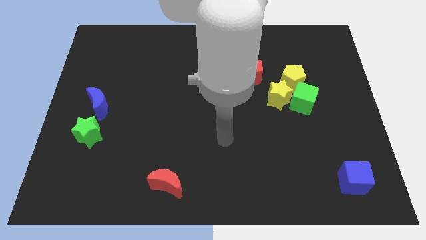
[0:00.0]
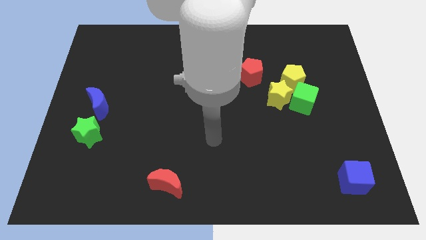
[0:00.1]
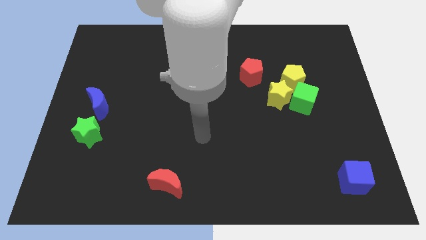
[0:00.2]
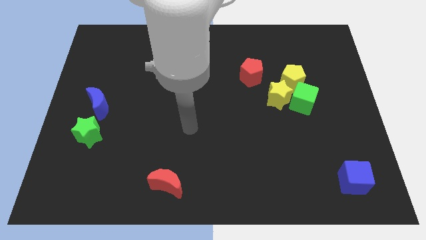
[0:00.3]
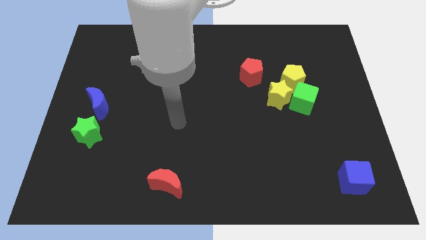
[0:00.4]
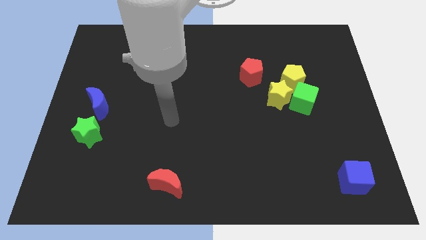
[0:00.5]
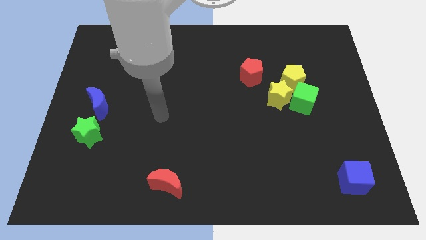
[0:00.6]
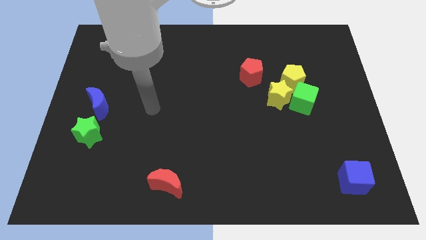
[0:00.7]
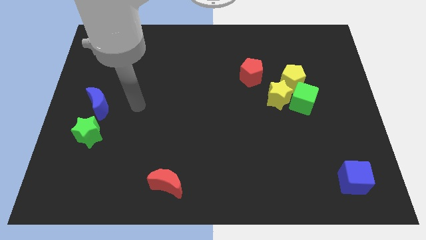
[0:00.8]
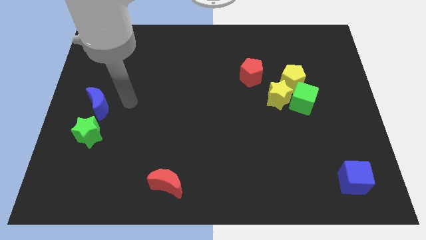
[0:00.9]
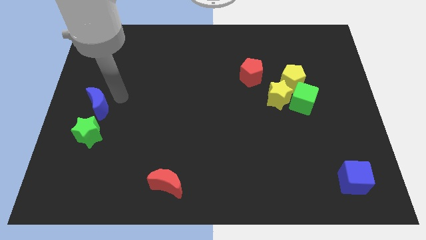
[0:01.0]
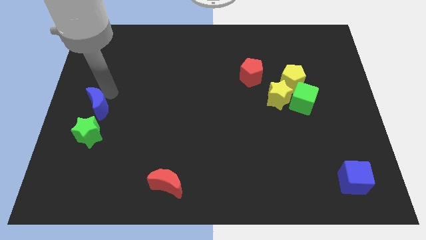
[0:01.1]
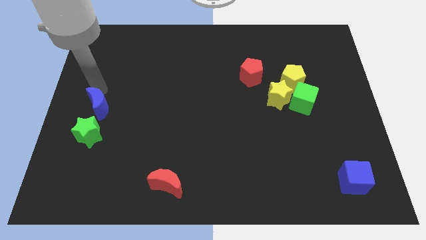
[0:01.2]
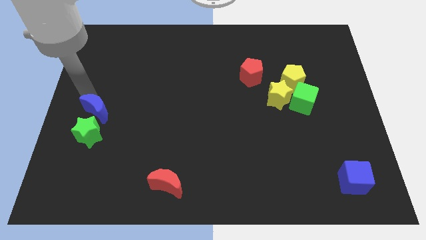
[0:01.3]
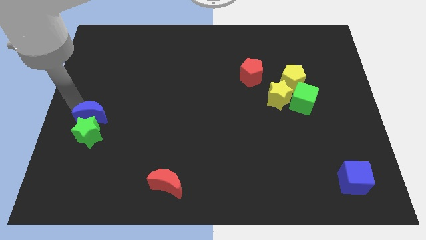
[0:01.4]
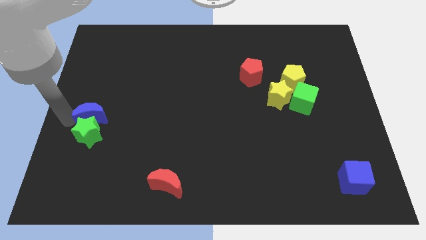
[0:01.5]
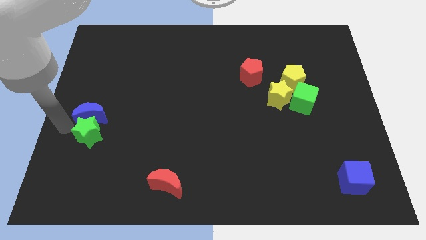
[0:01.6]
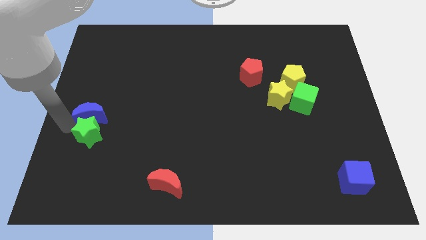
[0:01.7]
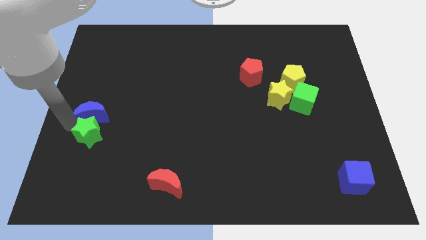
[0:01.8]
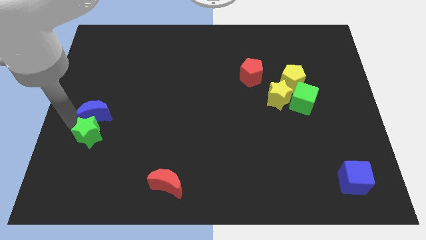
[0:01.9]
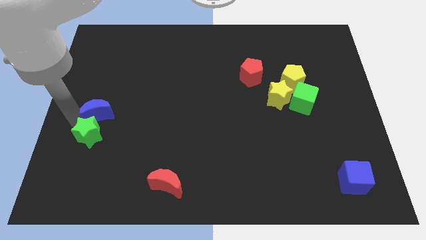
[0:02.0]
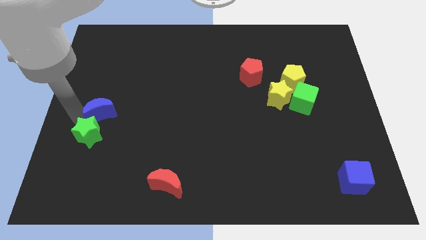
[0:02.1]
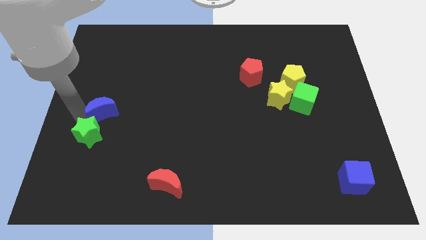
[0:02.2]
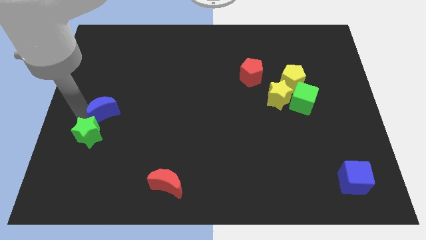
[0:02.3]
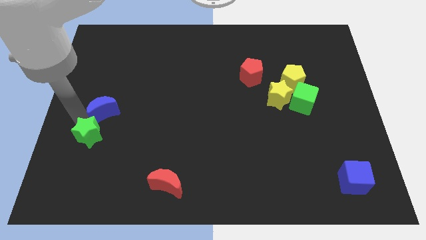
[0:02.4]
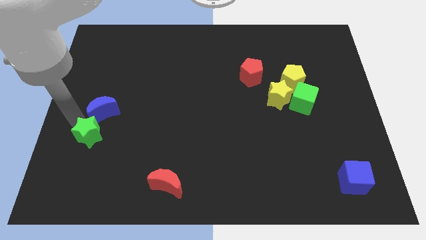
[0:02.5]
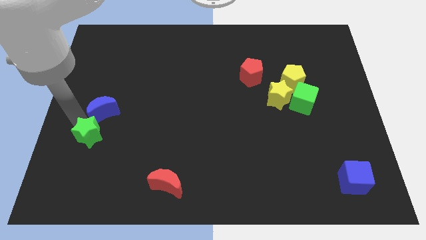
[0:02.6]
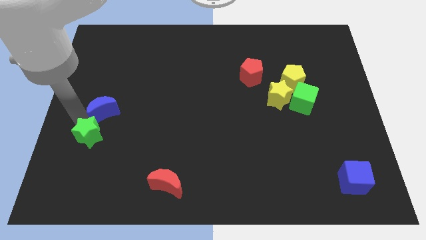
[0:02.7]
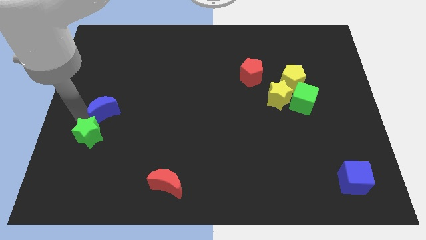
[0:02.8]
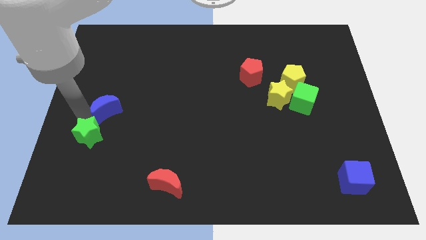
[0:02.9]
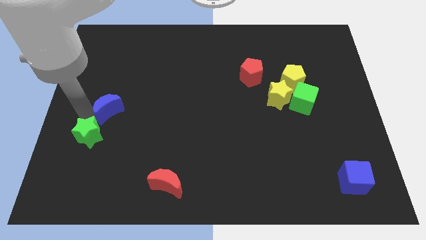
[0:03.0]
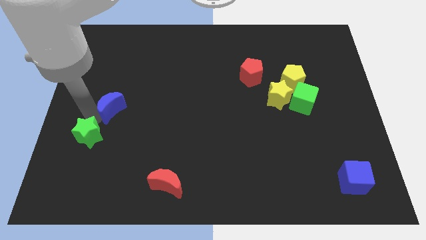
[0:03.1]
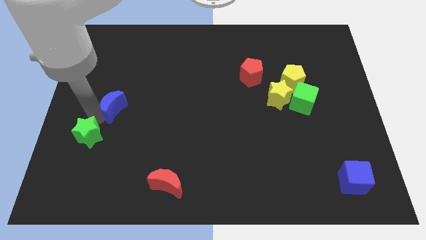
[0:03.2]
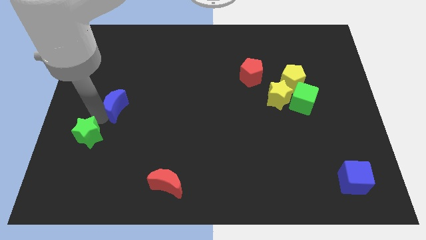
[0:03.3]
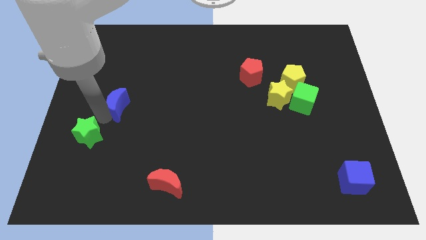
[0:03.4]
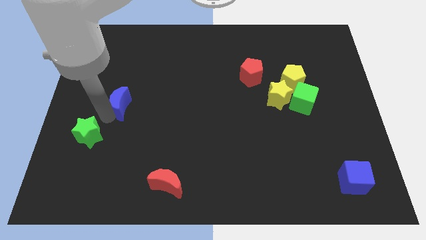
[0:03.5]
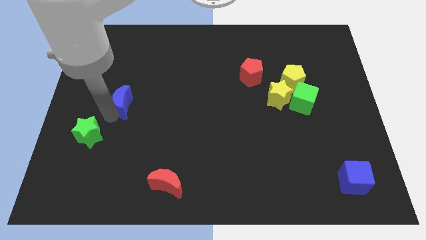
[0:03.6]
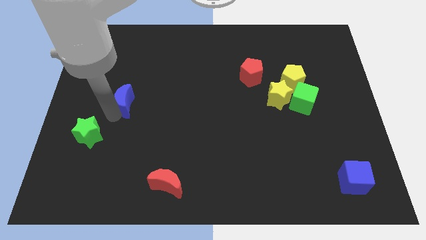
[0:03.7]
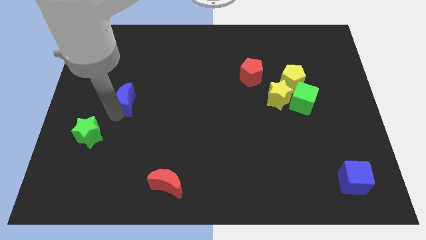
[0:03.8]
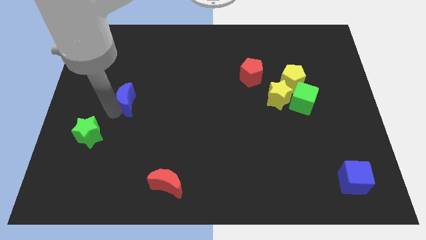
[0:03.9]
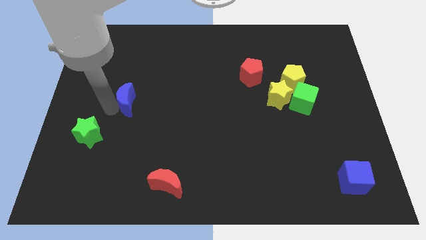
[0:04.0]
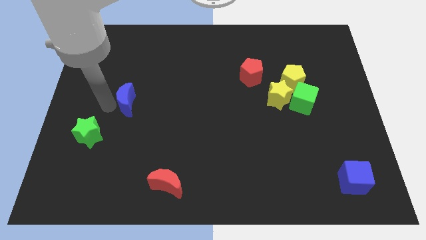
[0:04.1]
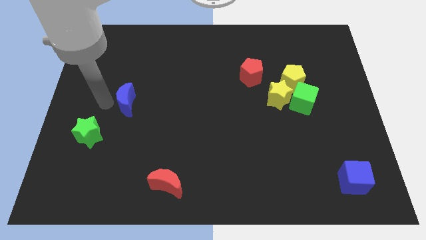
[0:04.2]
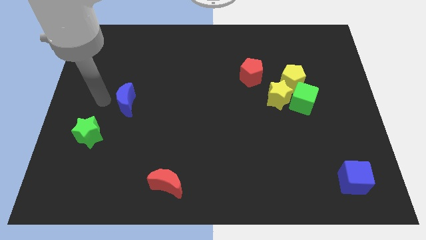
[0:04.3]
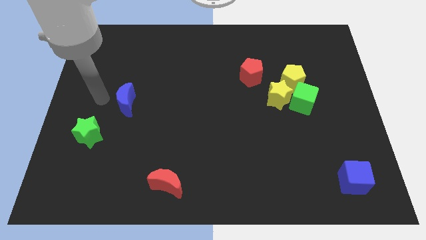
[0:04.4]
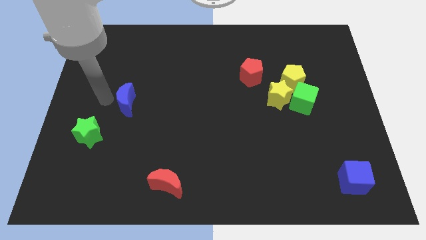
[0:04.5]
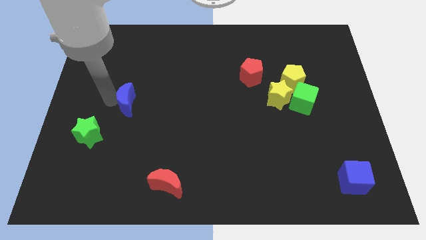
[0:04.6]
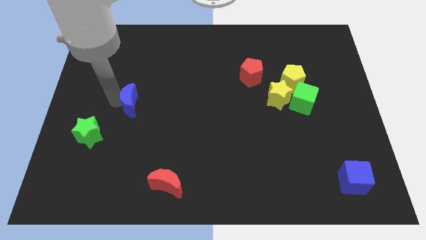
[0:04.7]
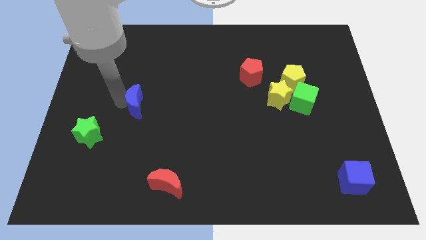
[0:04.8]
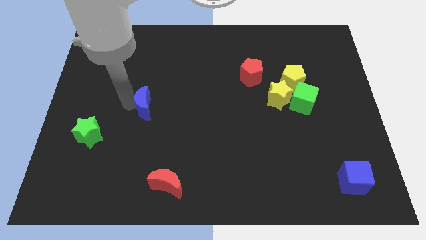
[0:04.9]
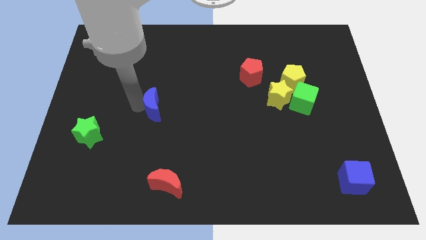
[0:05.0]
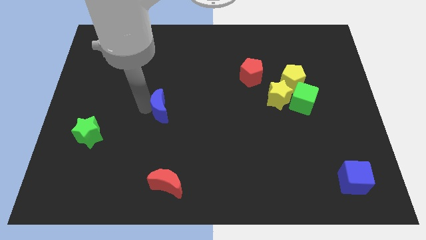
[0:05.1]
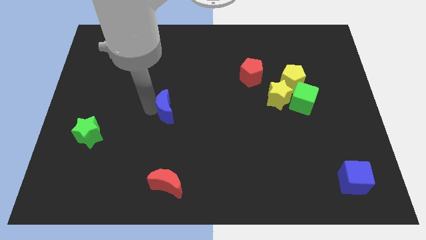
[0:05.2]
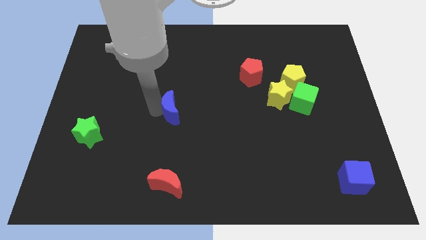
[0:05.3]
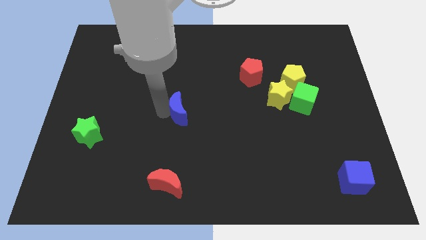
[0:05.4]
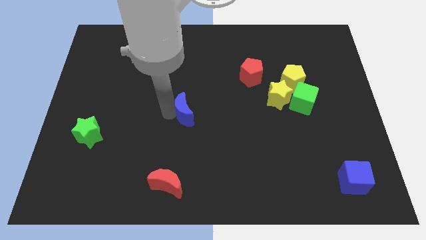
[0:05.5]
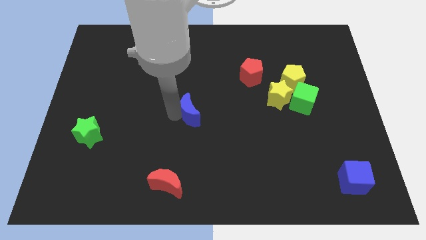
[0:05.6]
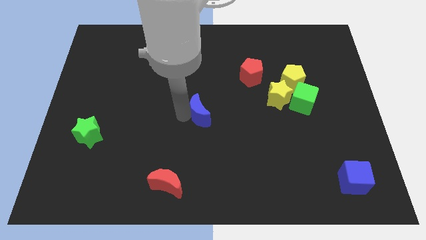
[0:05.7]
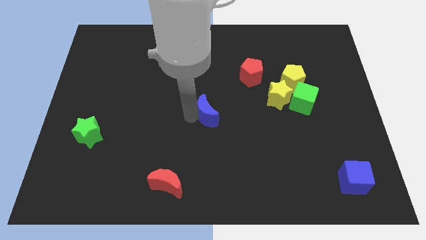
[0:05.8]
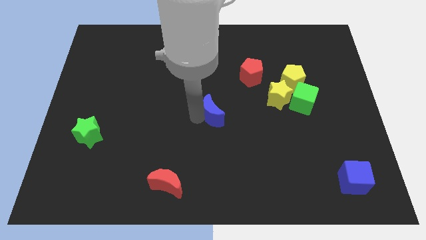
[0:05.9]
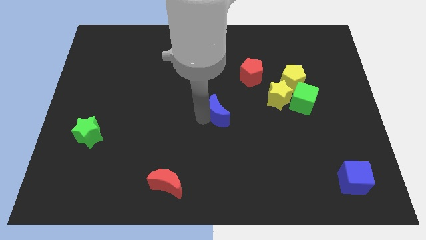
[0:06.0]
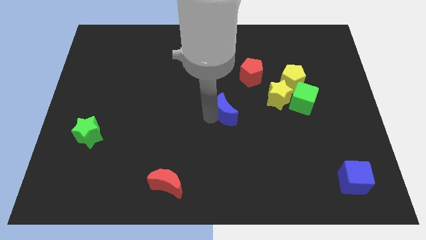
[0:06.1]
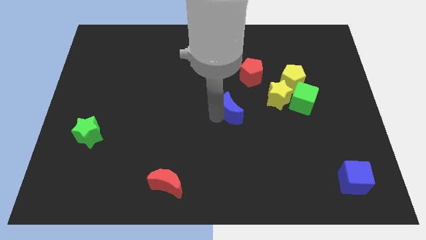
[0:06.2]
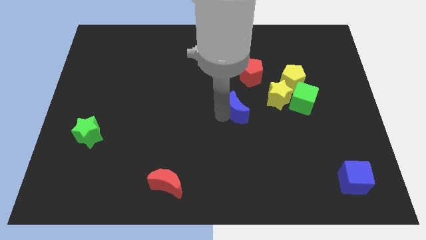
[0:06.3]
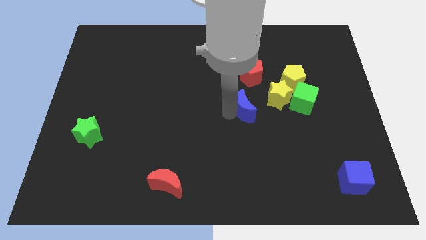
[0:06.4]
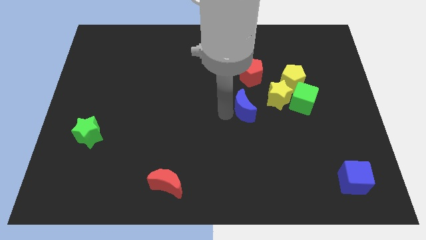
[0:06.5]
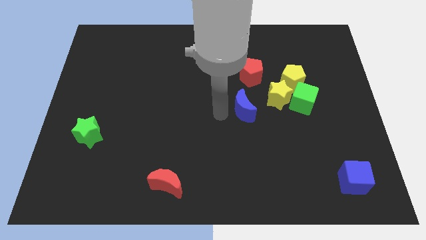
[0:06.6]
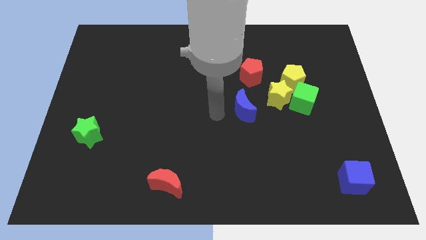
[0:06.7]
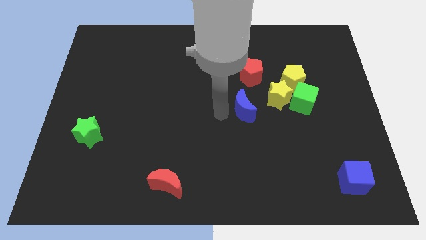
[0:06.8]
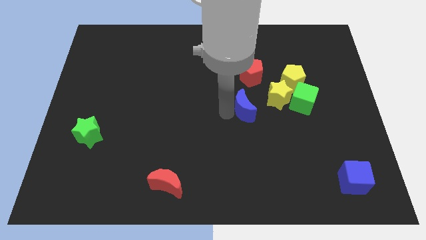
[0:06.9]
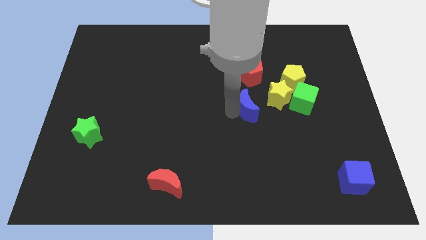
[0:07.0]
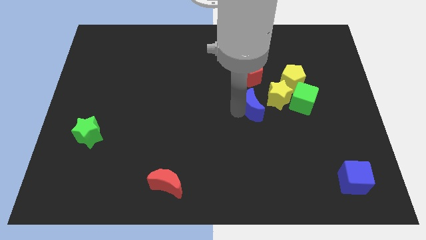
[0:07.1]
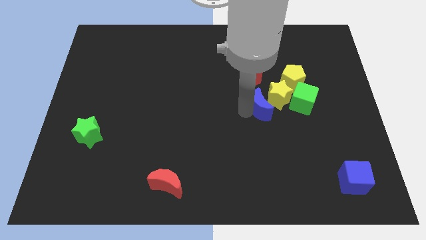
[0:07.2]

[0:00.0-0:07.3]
slide the blue moon to the bottom left side of the yellow pentagon
